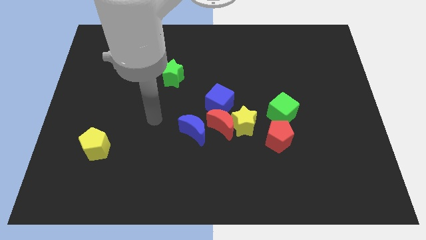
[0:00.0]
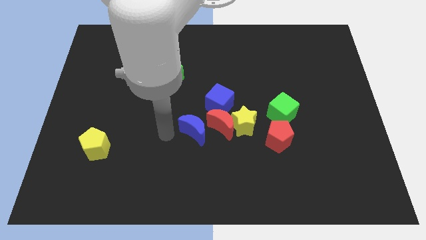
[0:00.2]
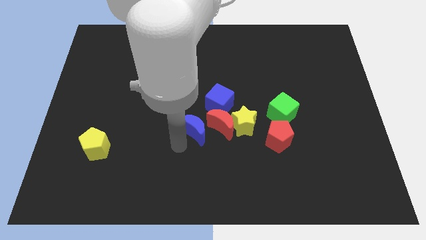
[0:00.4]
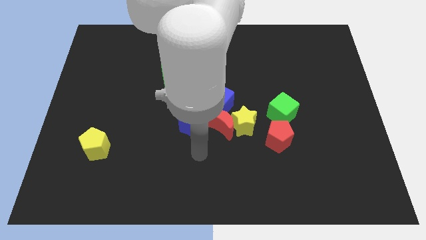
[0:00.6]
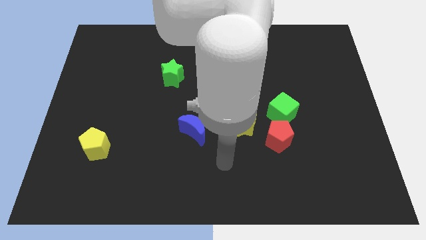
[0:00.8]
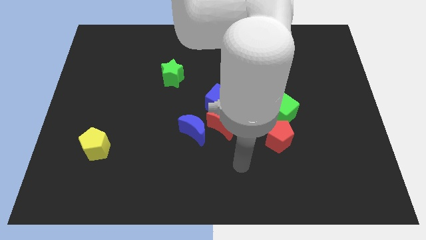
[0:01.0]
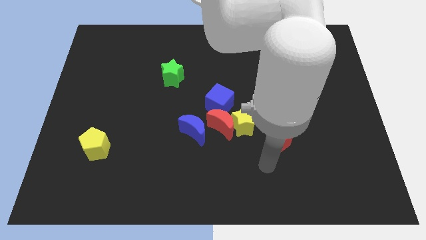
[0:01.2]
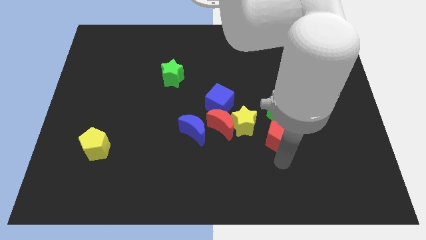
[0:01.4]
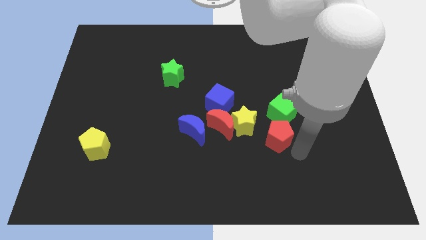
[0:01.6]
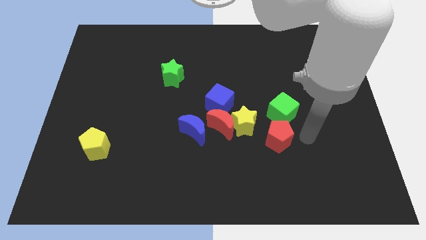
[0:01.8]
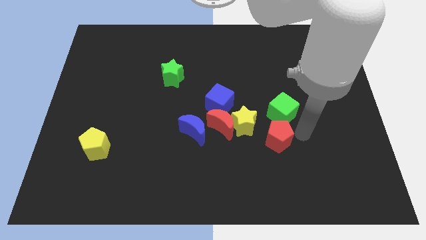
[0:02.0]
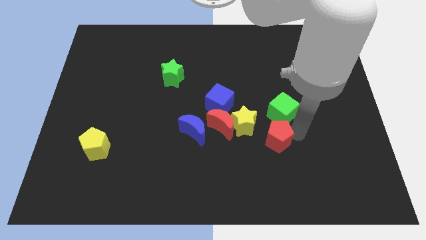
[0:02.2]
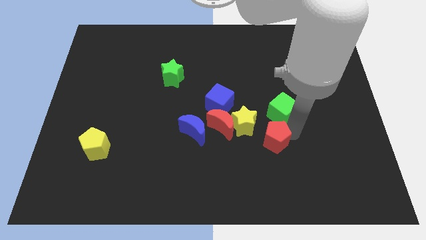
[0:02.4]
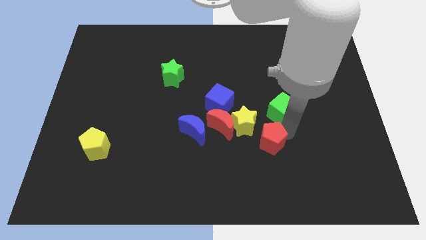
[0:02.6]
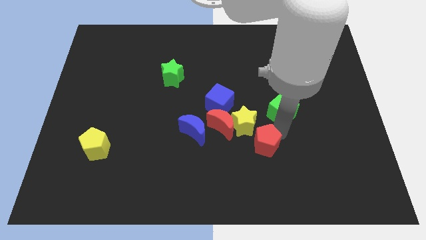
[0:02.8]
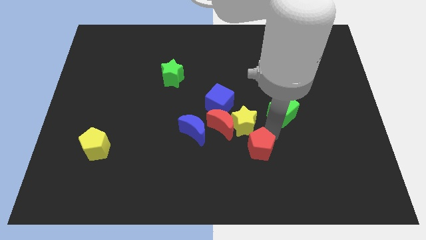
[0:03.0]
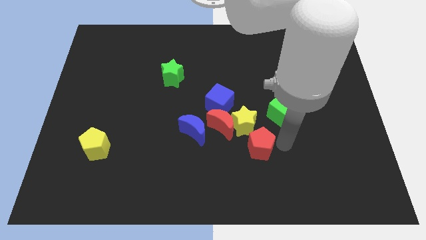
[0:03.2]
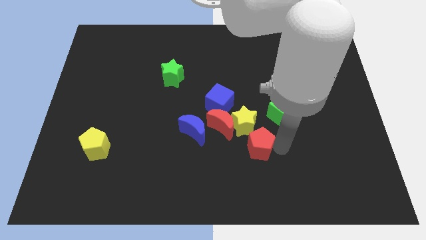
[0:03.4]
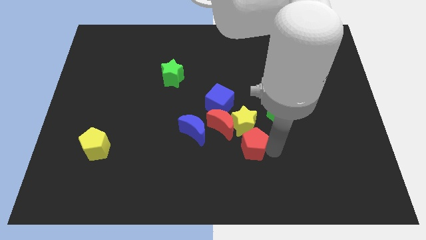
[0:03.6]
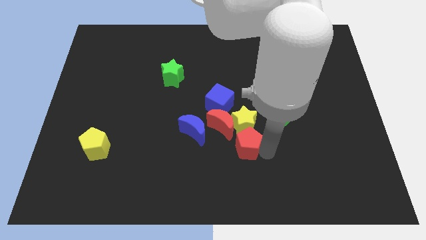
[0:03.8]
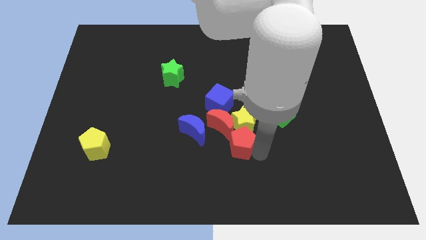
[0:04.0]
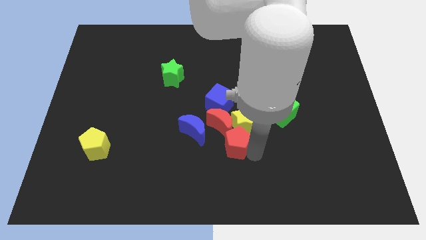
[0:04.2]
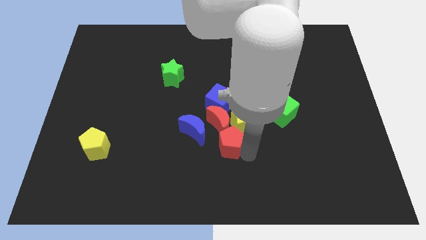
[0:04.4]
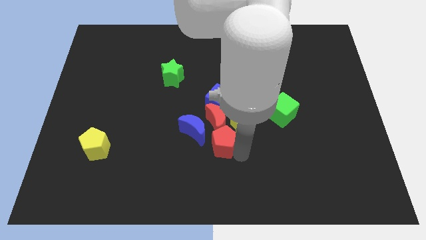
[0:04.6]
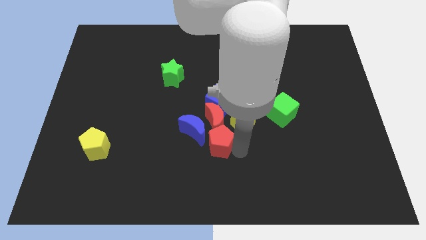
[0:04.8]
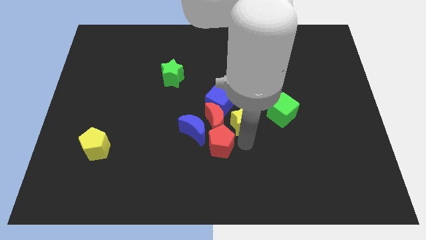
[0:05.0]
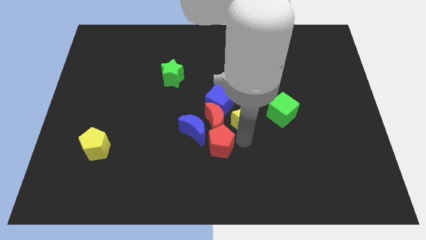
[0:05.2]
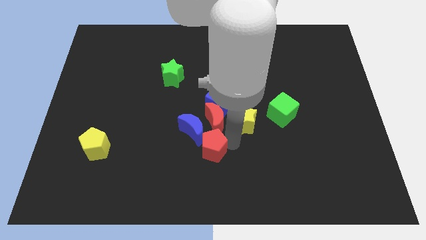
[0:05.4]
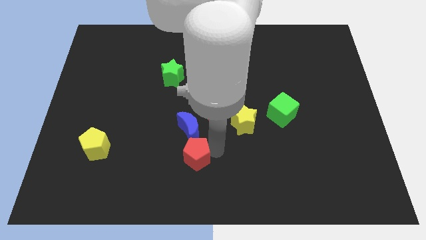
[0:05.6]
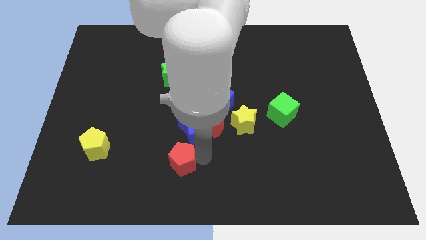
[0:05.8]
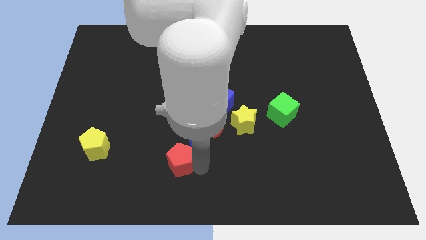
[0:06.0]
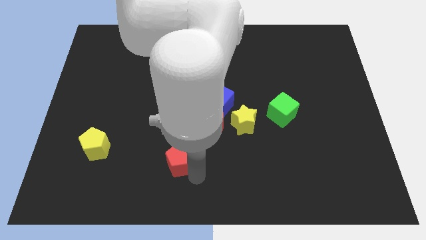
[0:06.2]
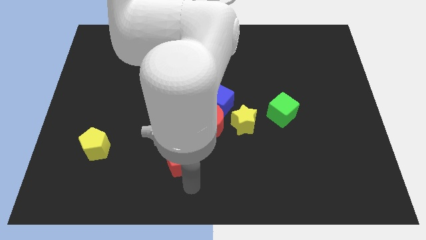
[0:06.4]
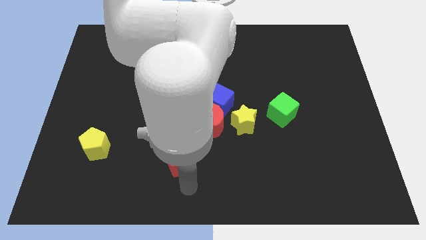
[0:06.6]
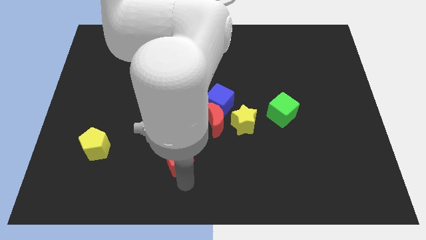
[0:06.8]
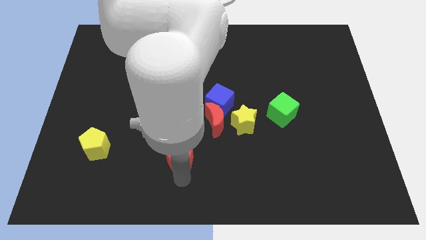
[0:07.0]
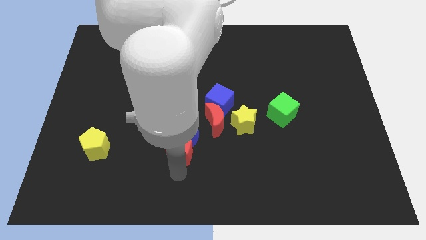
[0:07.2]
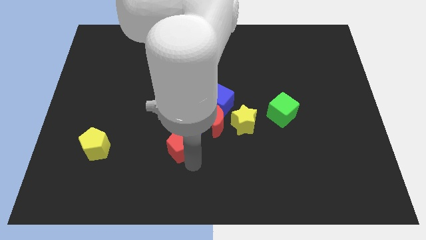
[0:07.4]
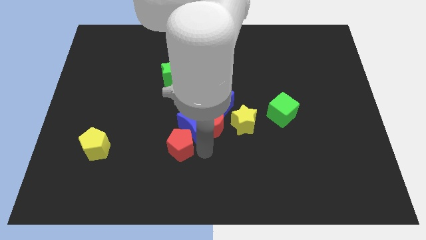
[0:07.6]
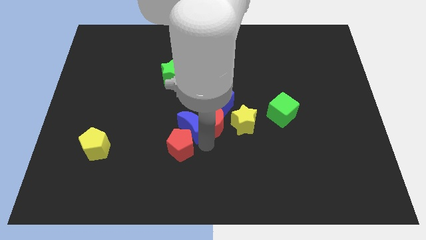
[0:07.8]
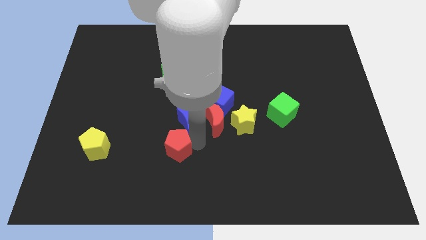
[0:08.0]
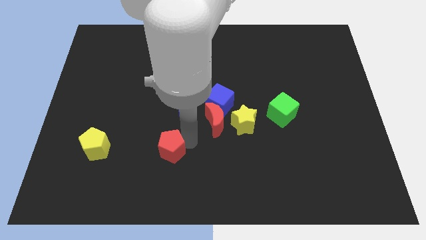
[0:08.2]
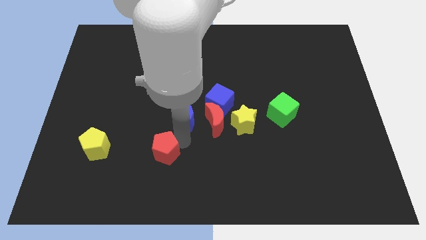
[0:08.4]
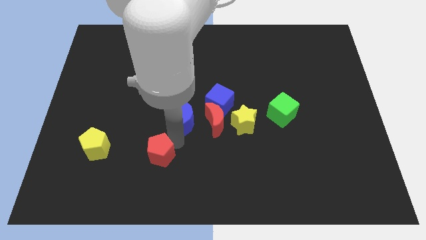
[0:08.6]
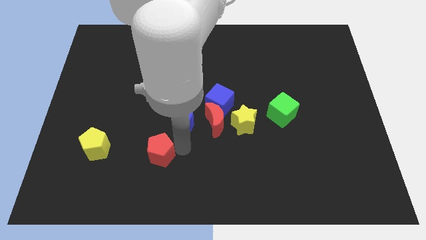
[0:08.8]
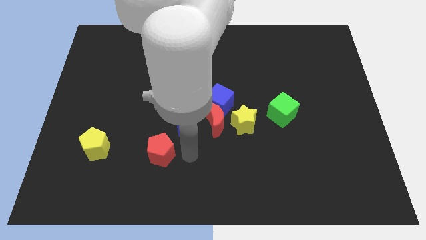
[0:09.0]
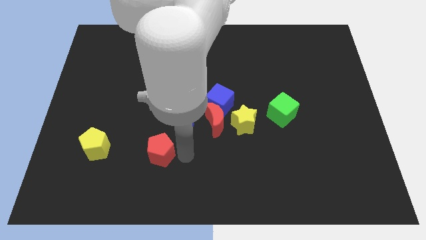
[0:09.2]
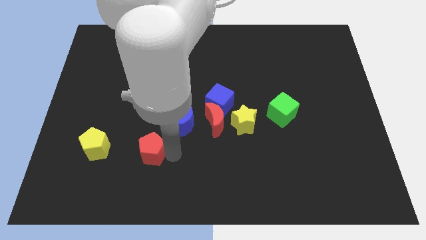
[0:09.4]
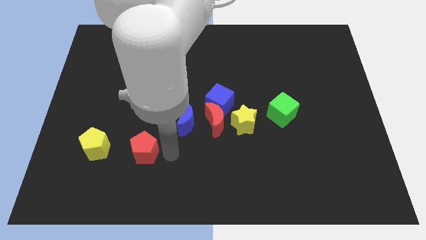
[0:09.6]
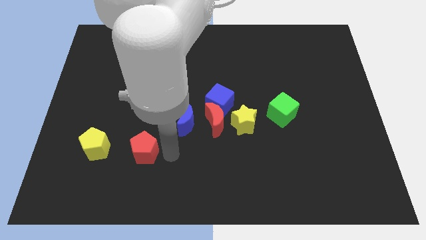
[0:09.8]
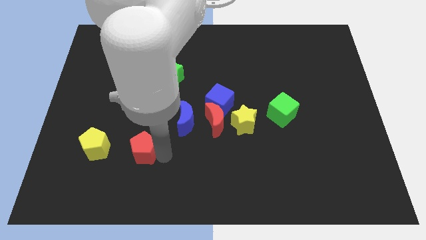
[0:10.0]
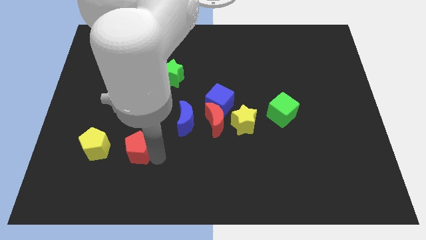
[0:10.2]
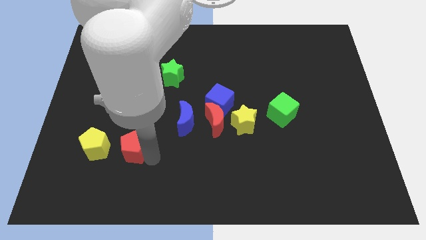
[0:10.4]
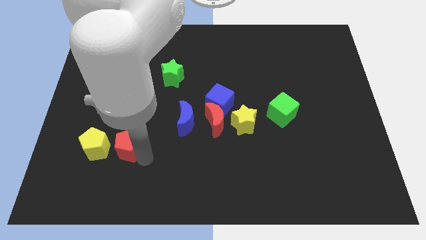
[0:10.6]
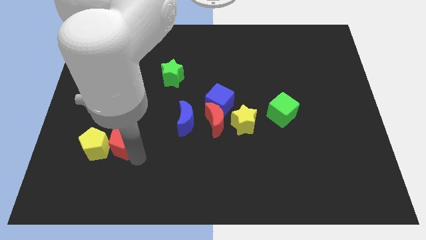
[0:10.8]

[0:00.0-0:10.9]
push the red pentagon to the yellow pentagon

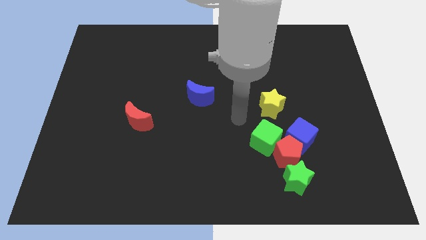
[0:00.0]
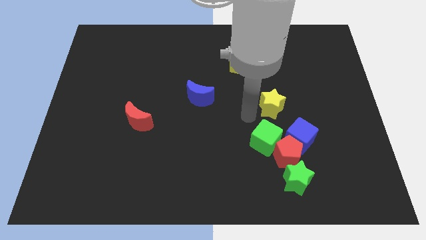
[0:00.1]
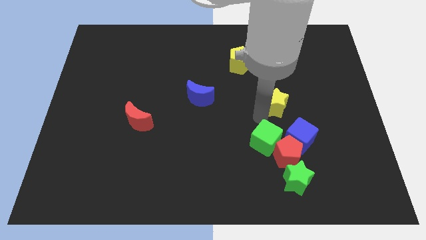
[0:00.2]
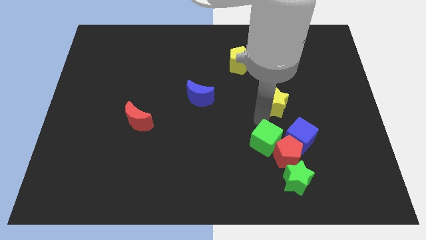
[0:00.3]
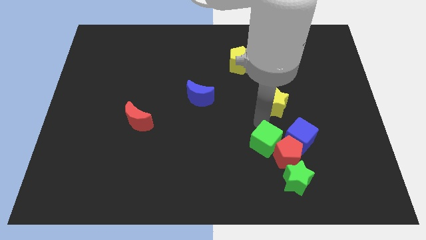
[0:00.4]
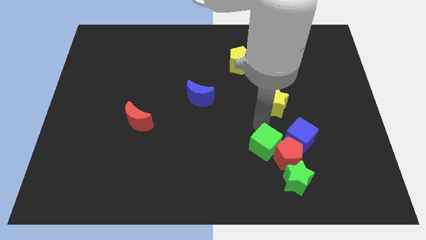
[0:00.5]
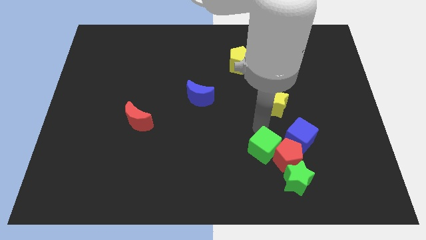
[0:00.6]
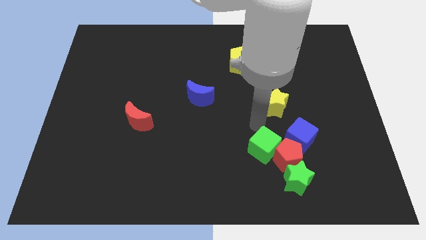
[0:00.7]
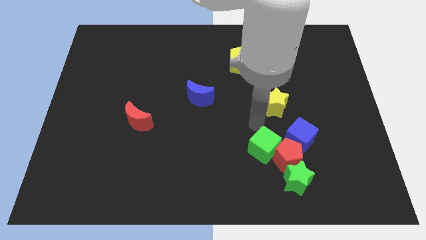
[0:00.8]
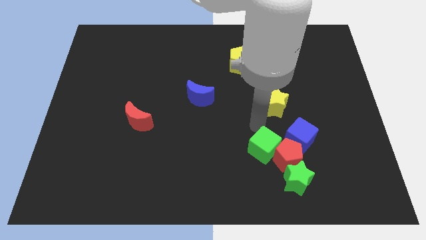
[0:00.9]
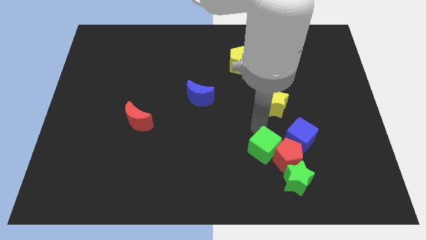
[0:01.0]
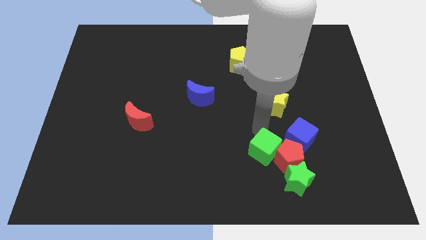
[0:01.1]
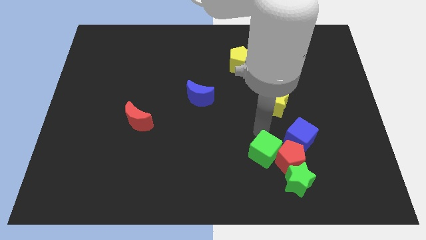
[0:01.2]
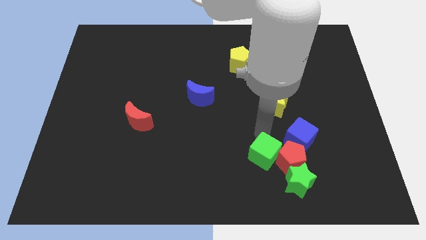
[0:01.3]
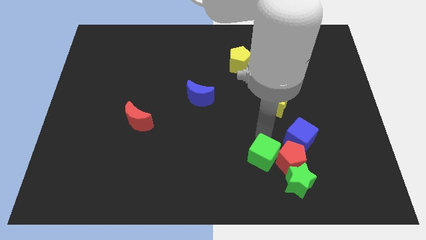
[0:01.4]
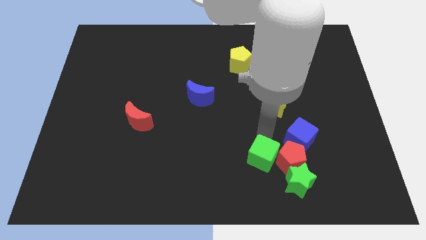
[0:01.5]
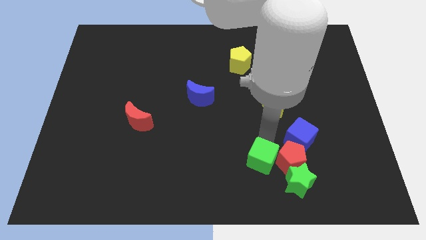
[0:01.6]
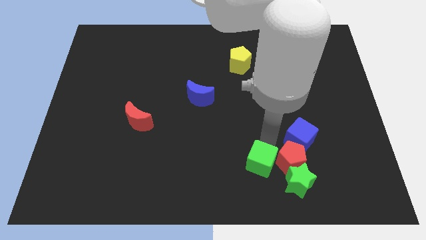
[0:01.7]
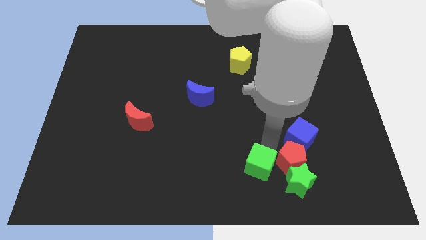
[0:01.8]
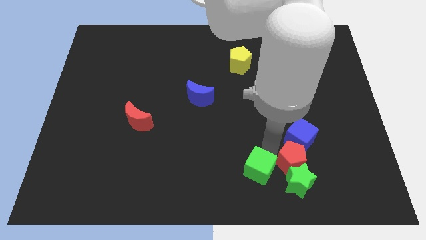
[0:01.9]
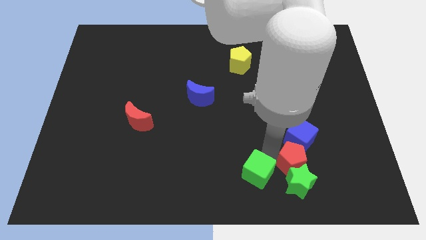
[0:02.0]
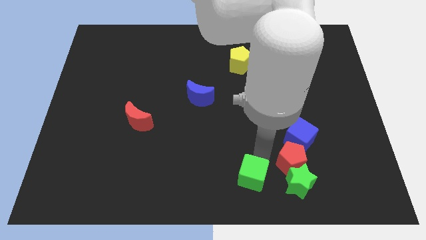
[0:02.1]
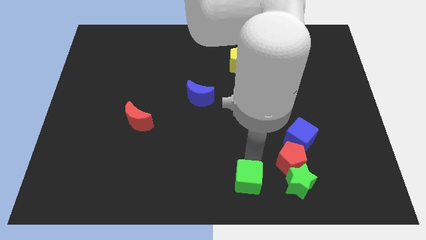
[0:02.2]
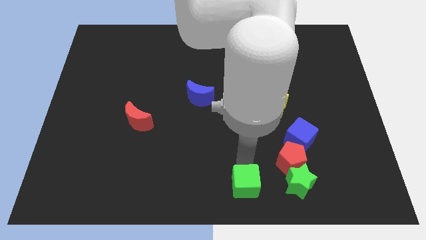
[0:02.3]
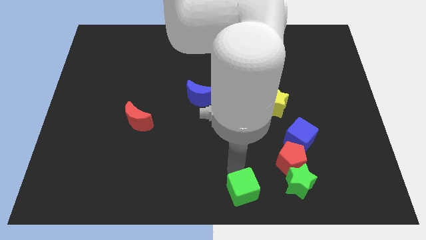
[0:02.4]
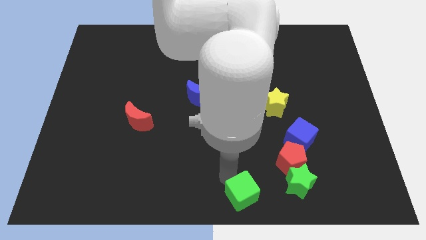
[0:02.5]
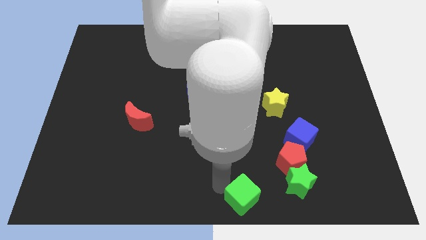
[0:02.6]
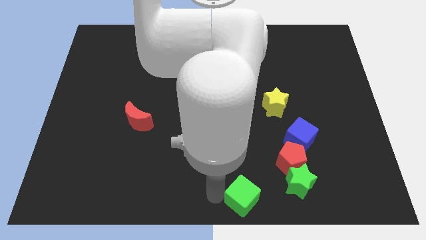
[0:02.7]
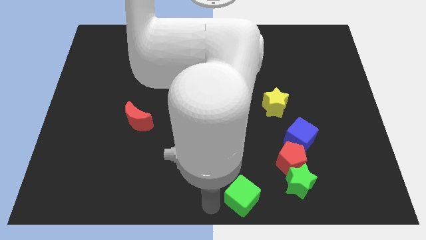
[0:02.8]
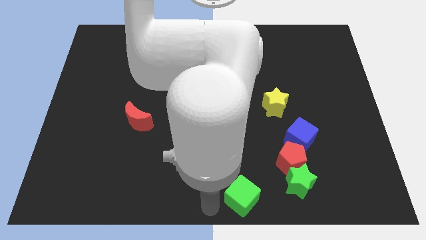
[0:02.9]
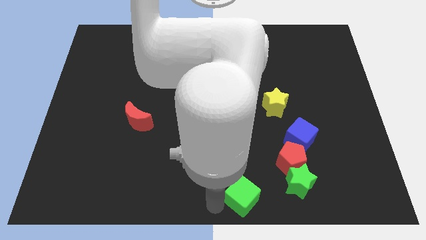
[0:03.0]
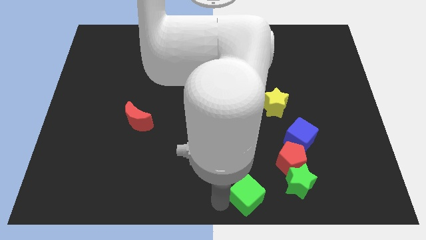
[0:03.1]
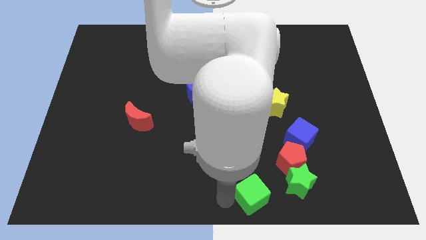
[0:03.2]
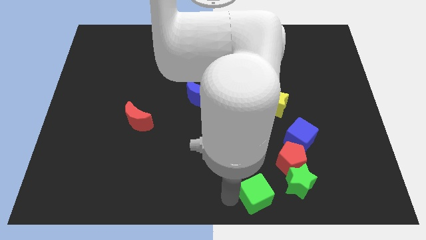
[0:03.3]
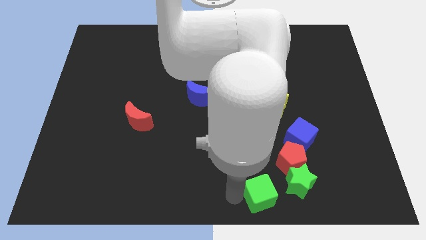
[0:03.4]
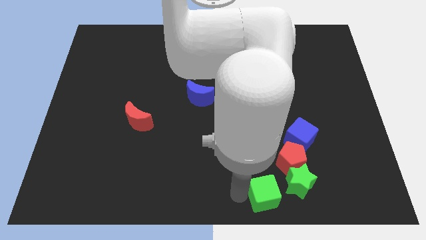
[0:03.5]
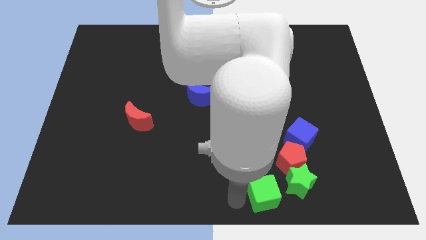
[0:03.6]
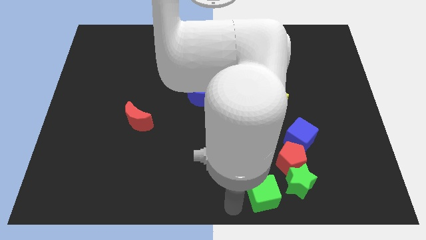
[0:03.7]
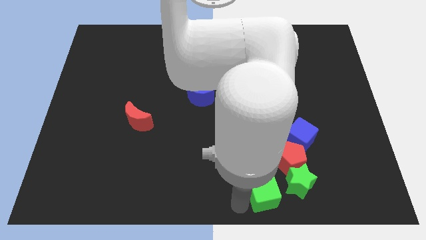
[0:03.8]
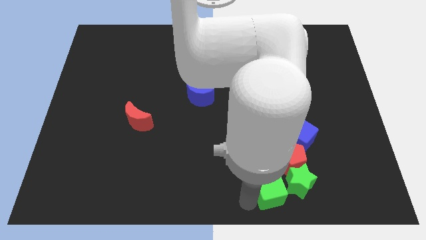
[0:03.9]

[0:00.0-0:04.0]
push the green cube to the green star
